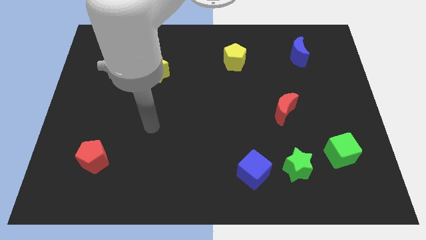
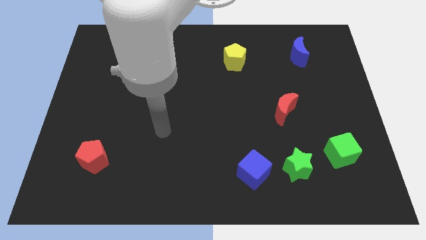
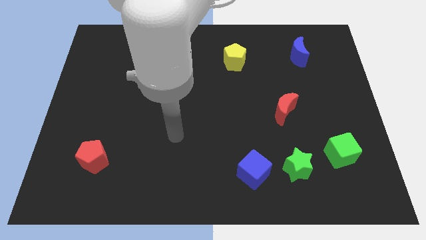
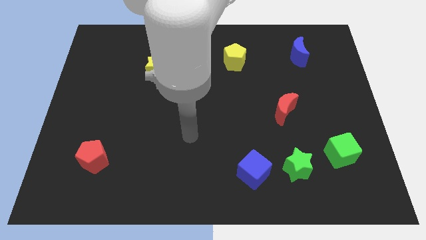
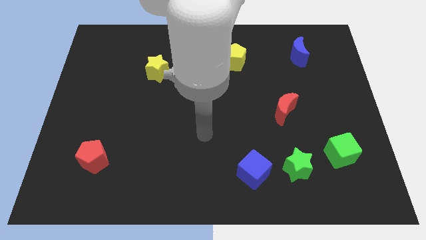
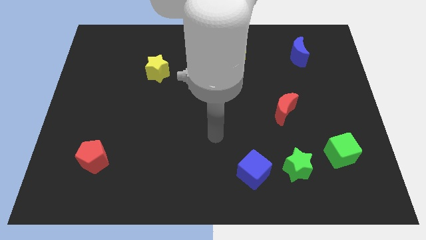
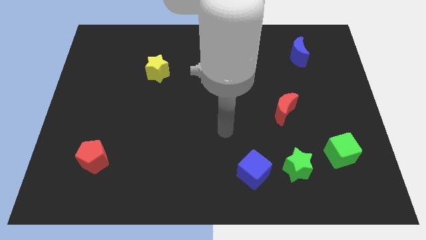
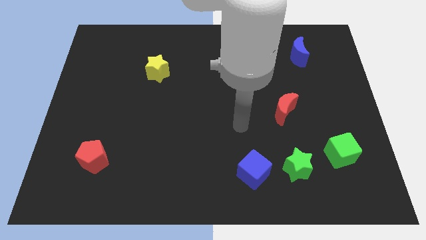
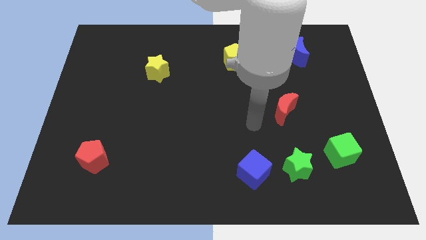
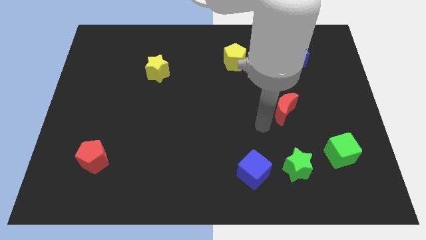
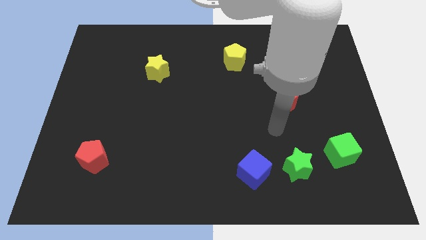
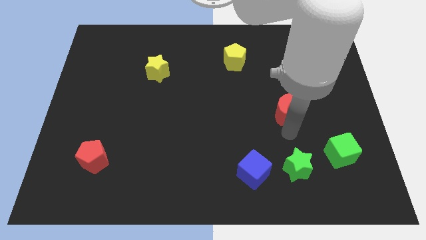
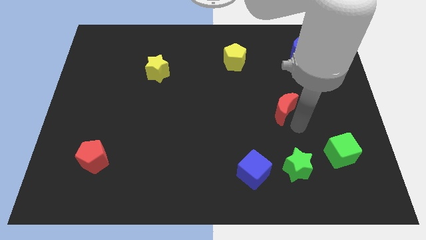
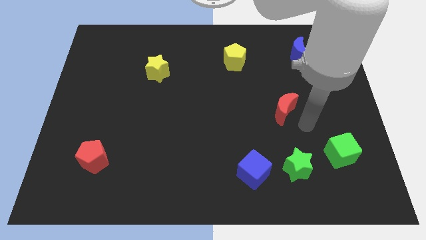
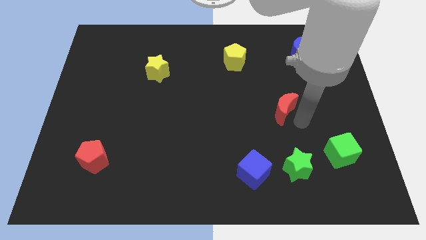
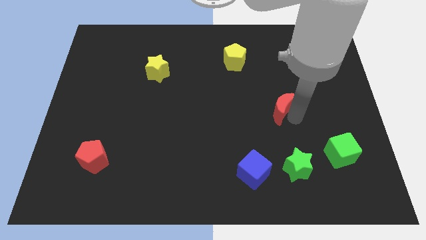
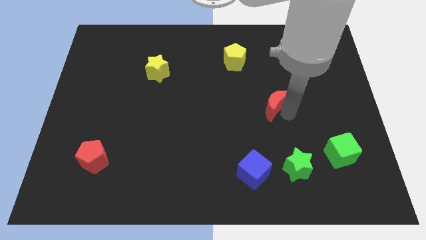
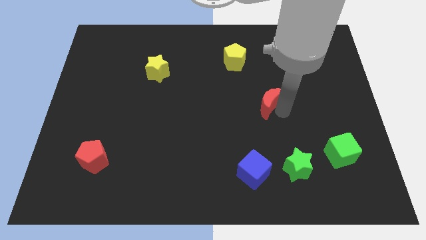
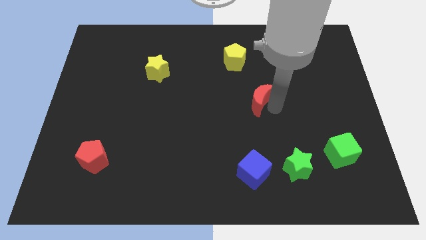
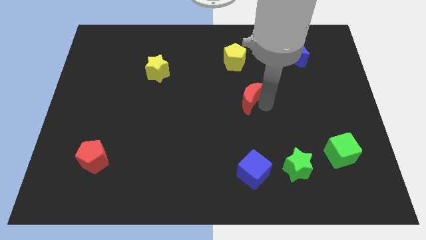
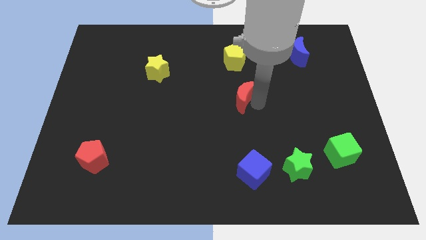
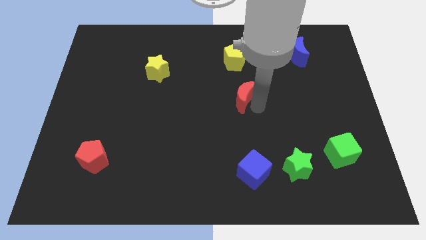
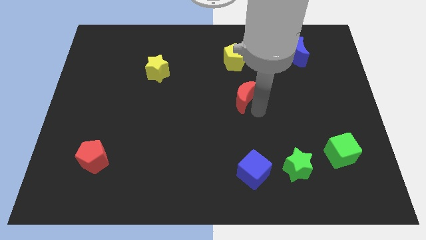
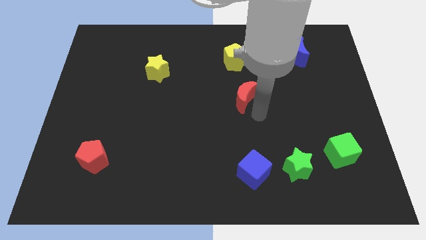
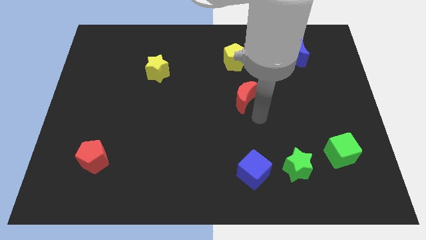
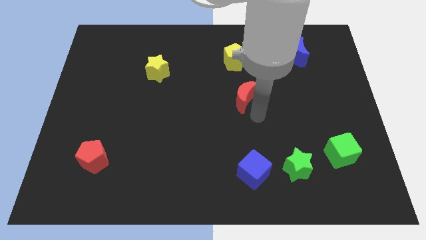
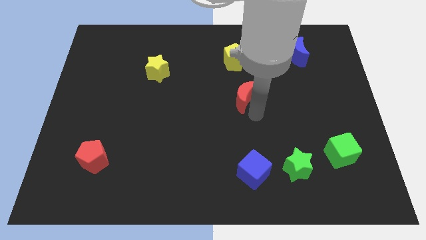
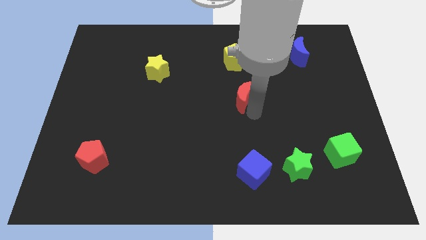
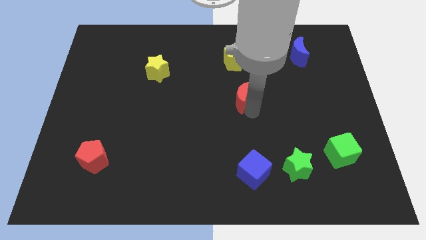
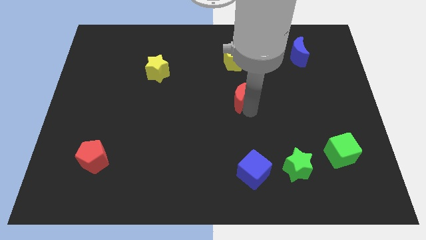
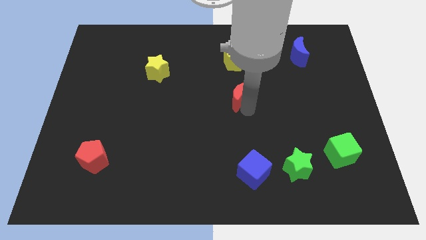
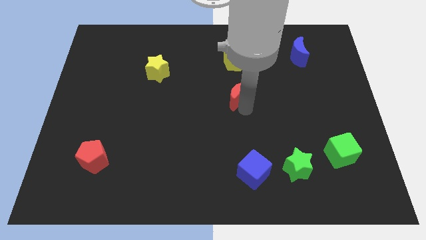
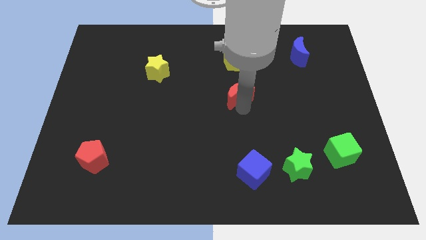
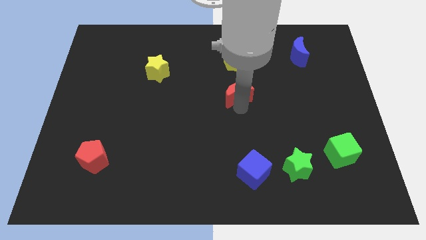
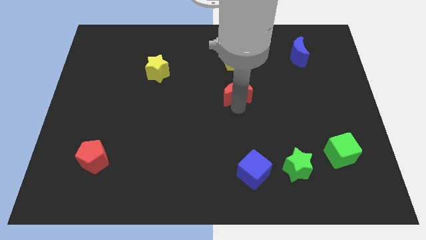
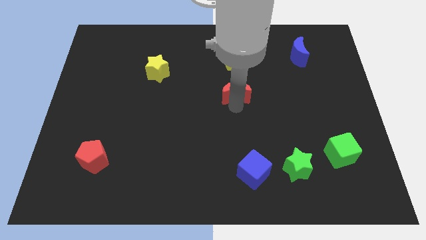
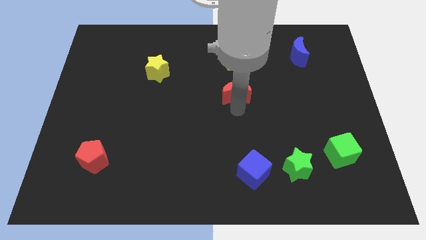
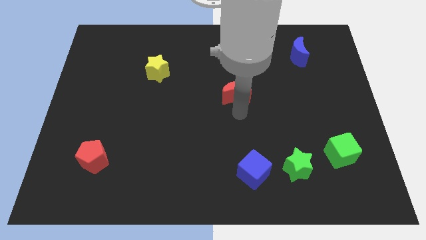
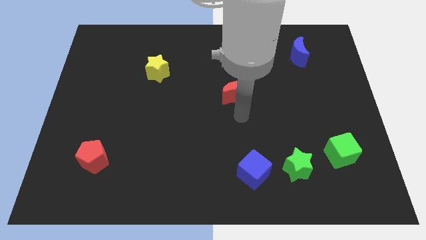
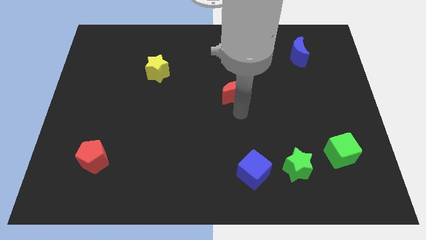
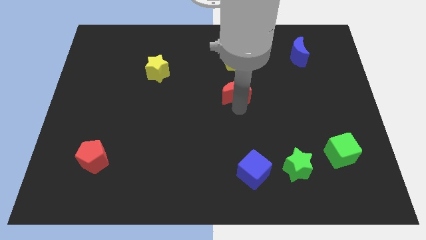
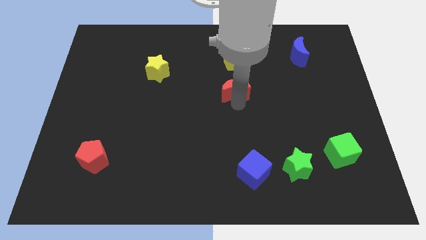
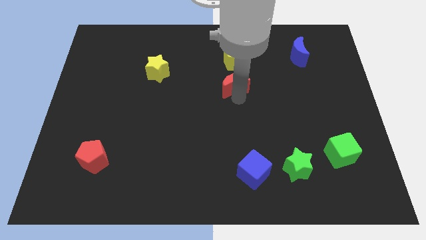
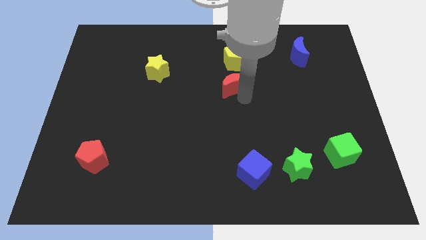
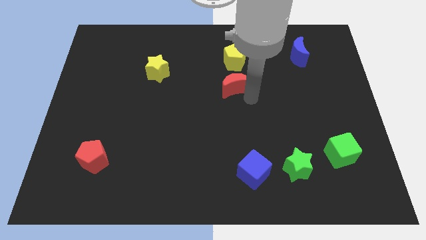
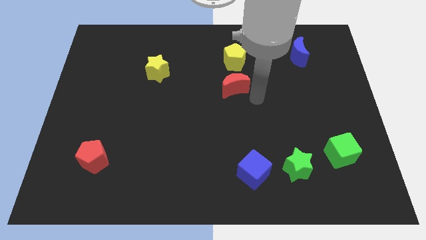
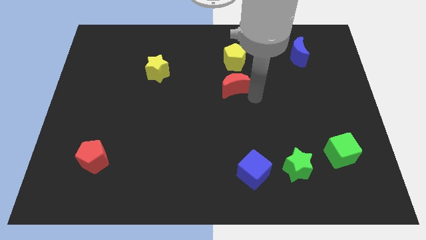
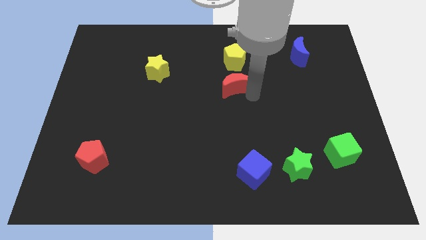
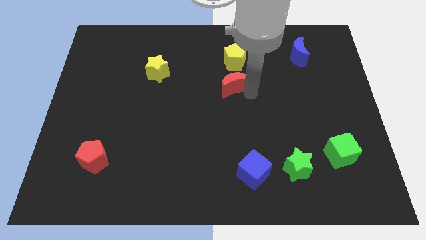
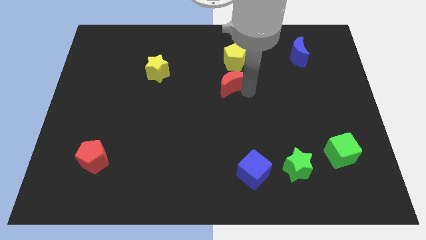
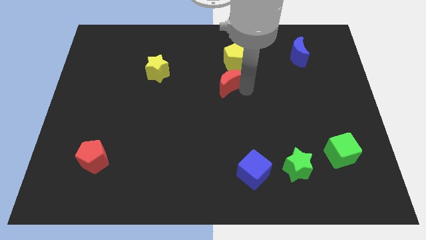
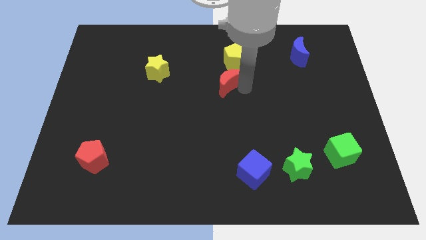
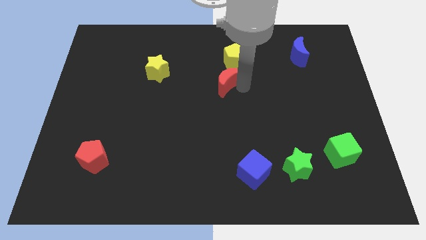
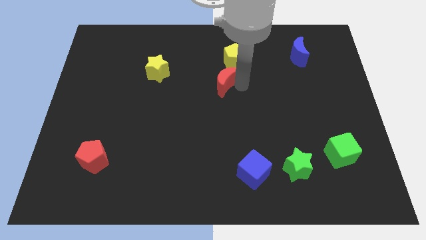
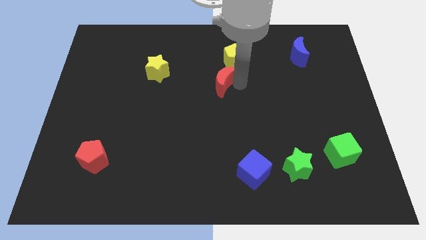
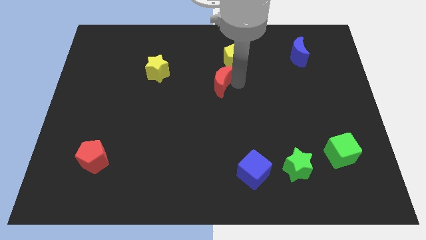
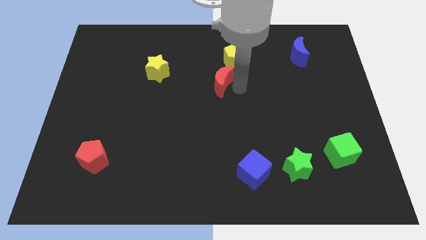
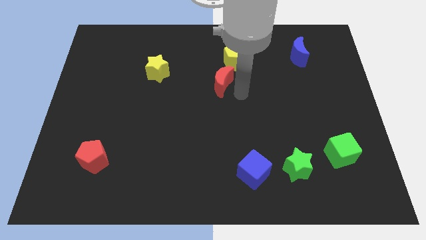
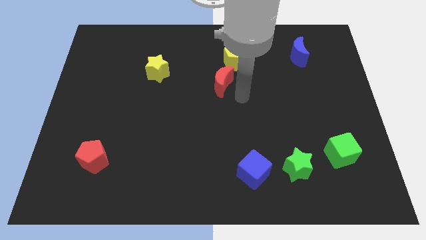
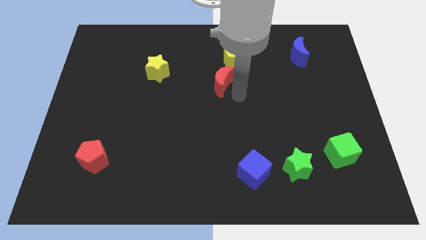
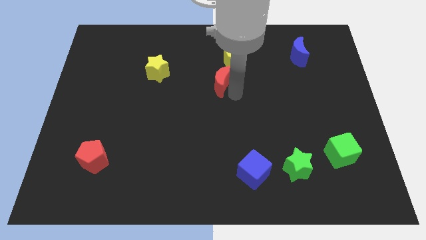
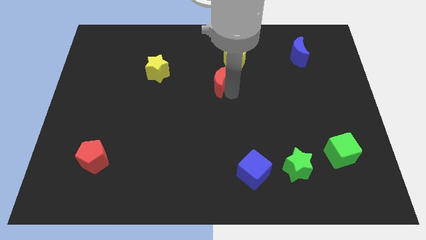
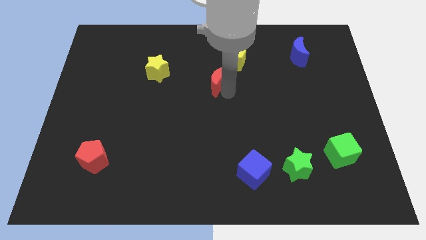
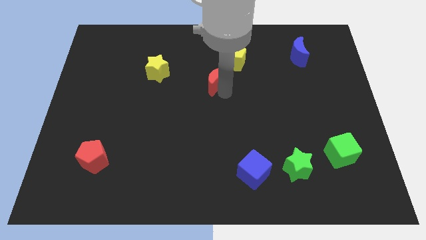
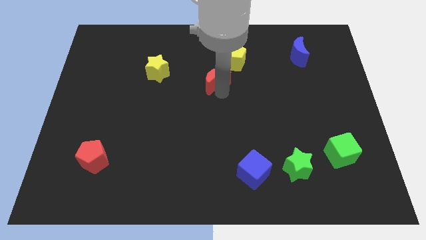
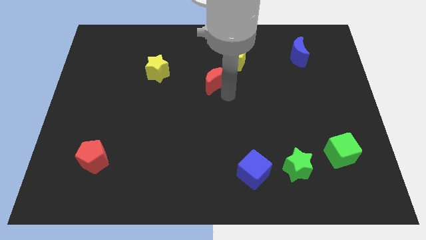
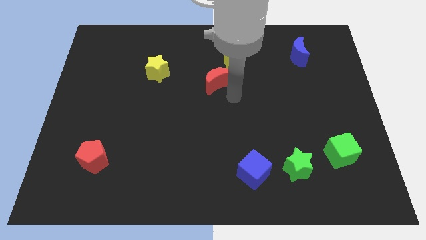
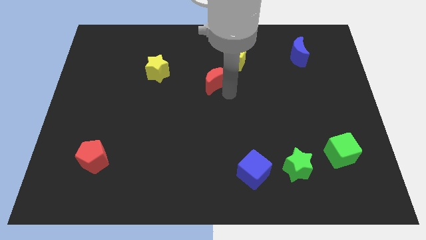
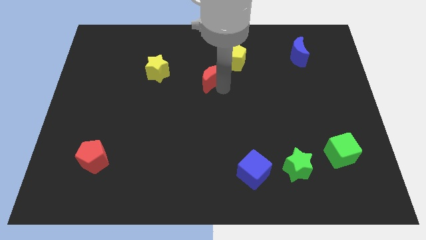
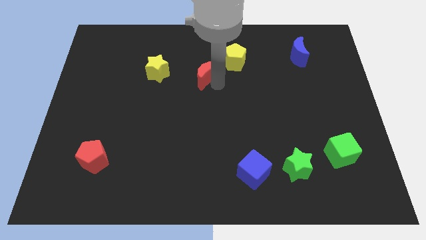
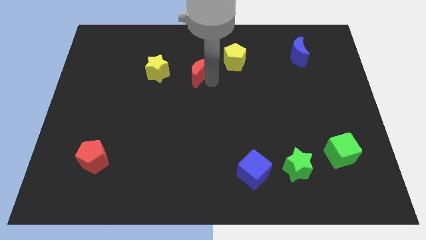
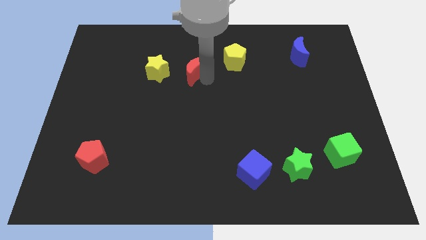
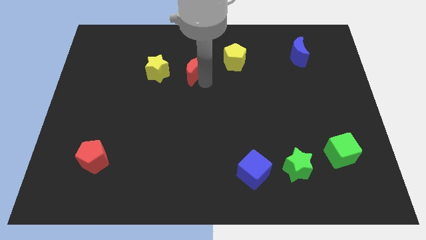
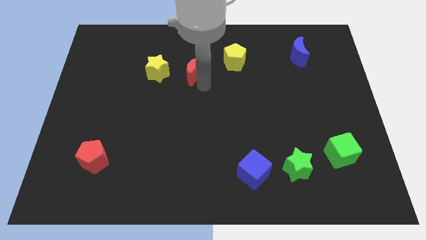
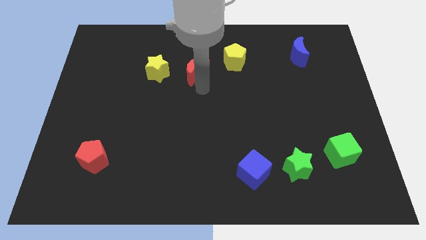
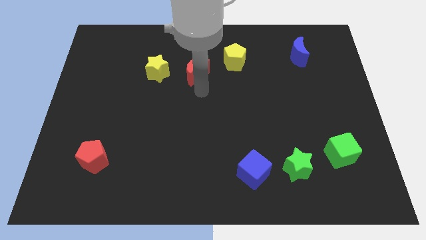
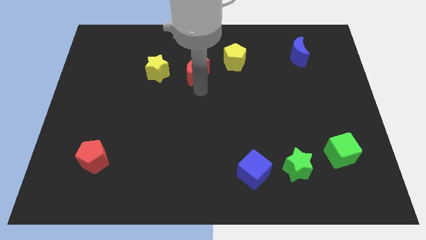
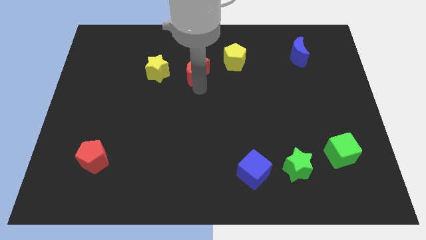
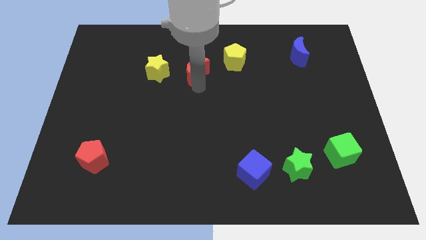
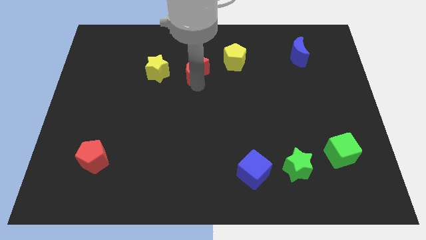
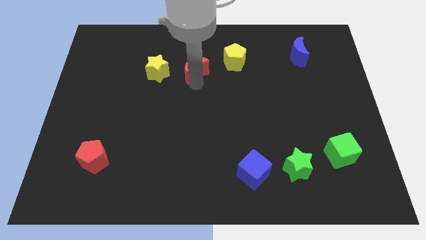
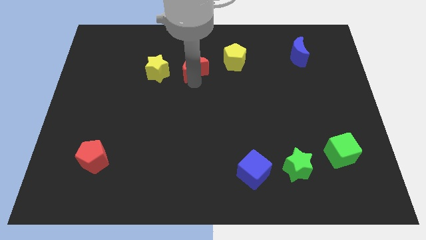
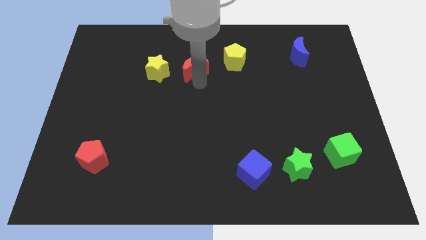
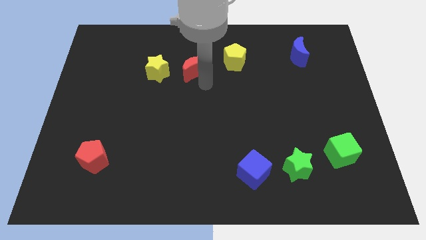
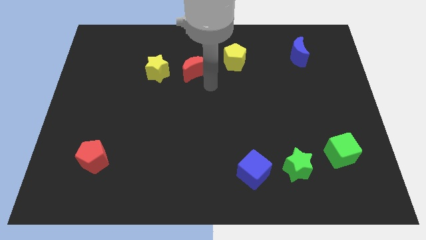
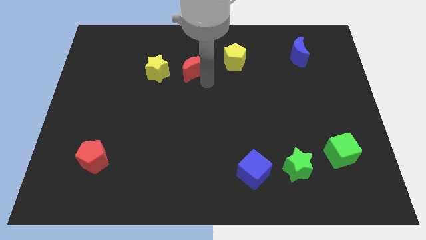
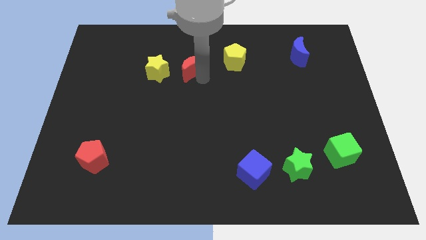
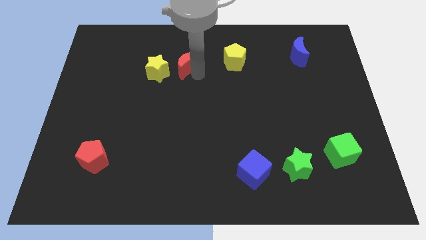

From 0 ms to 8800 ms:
put the red moon to the top right side of the yellow star
